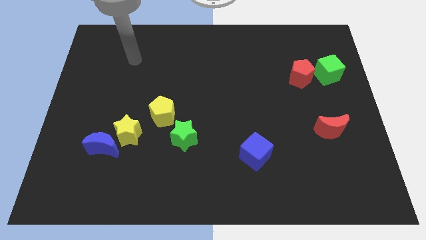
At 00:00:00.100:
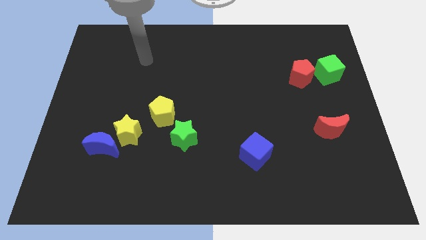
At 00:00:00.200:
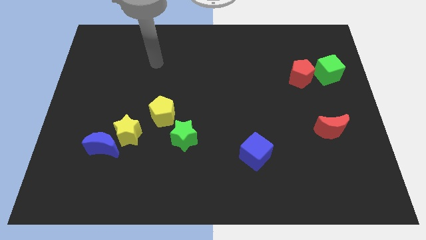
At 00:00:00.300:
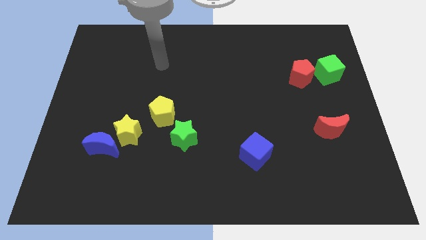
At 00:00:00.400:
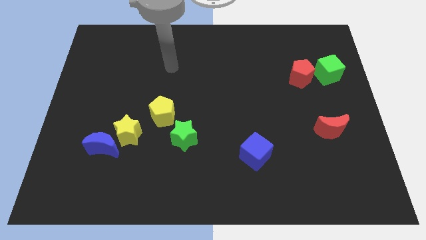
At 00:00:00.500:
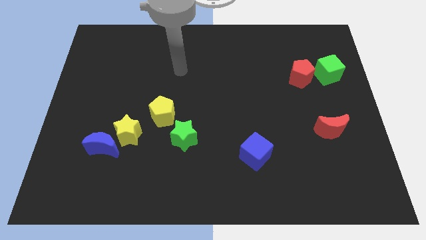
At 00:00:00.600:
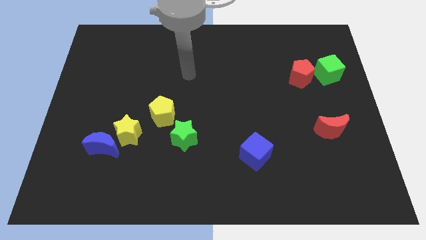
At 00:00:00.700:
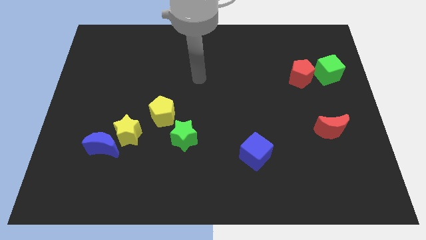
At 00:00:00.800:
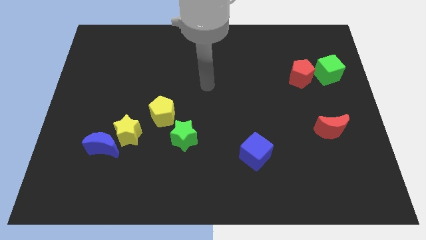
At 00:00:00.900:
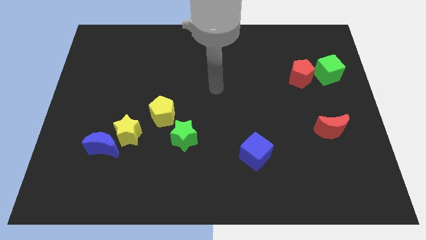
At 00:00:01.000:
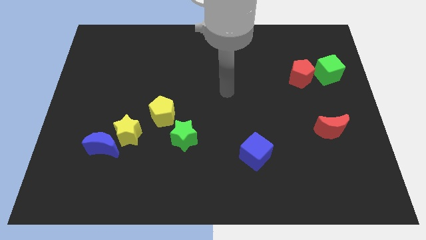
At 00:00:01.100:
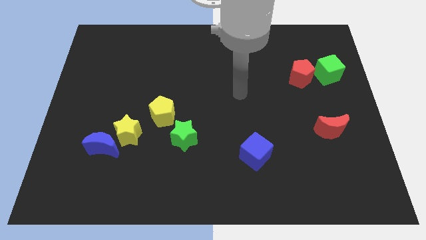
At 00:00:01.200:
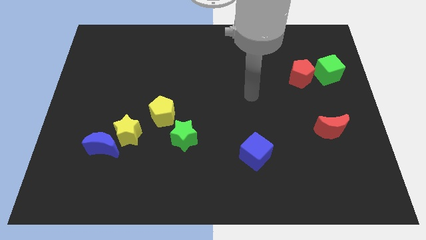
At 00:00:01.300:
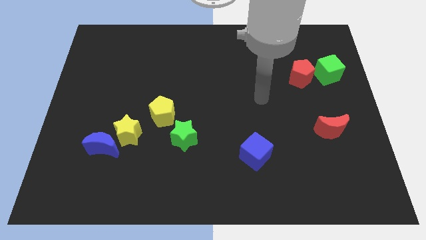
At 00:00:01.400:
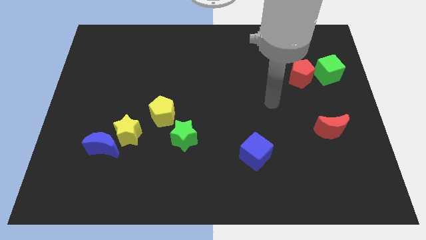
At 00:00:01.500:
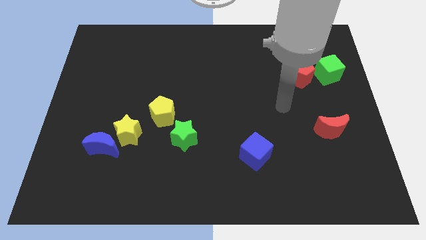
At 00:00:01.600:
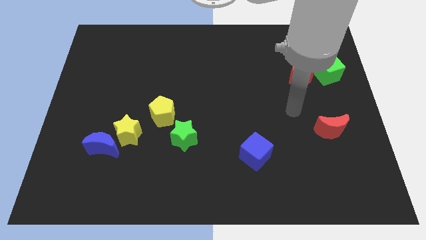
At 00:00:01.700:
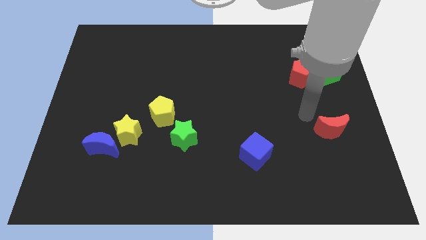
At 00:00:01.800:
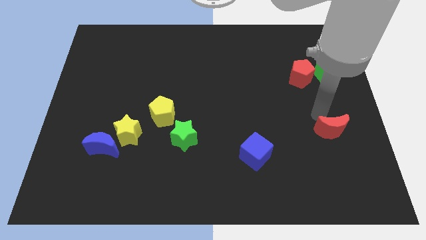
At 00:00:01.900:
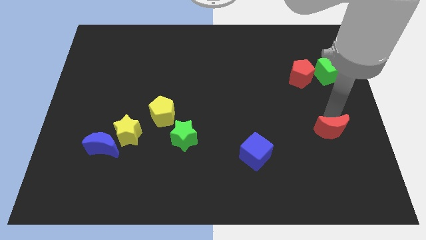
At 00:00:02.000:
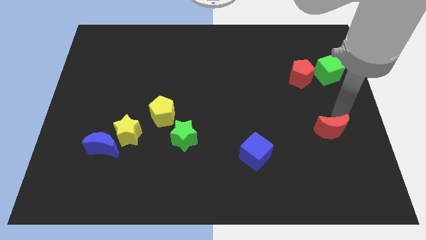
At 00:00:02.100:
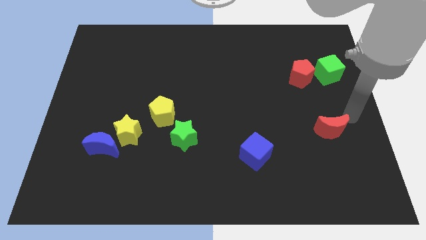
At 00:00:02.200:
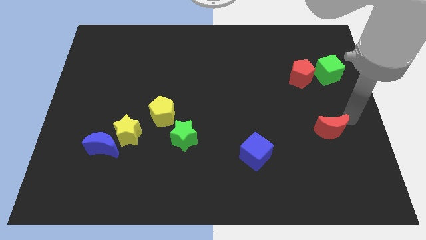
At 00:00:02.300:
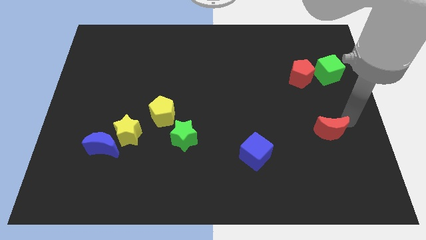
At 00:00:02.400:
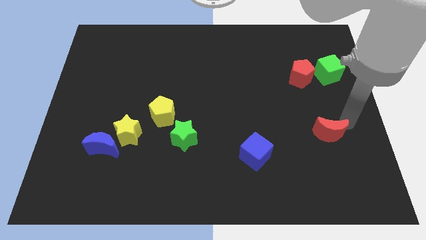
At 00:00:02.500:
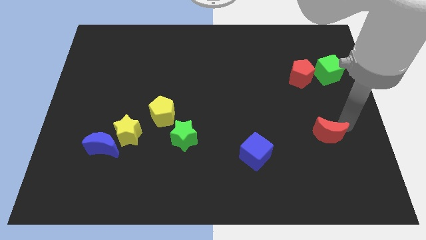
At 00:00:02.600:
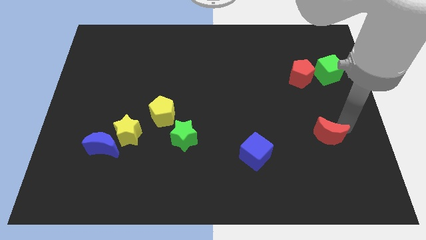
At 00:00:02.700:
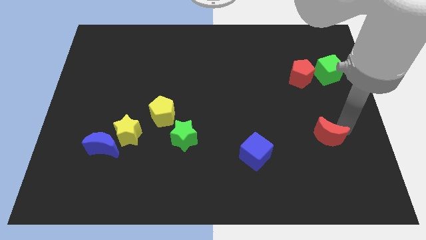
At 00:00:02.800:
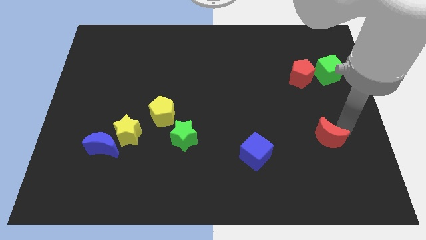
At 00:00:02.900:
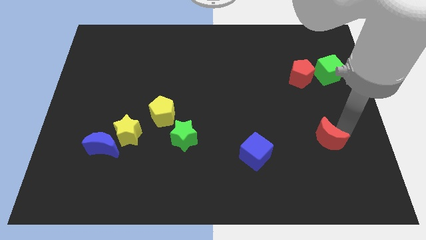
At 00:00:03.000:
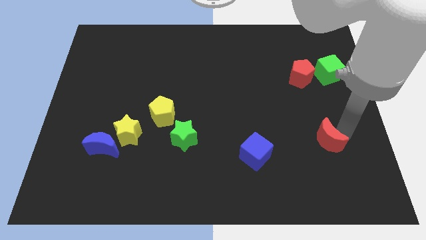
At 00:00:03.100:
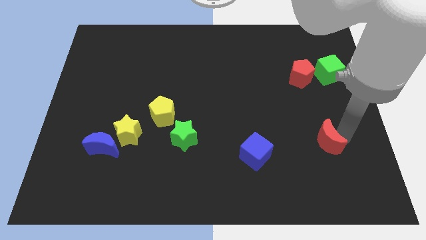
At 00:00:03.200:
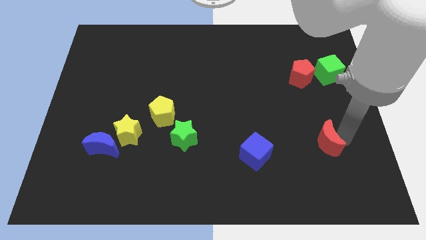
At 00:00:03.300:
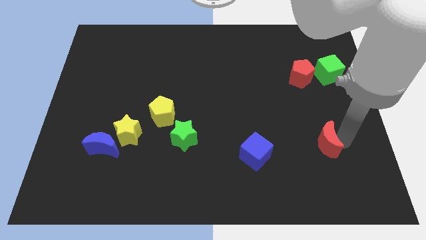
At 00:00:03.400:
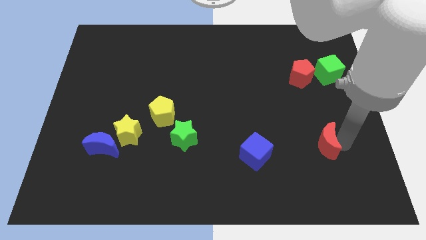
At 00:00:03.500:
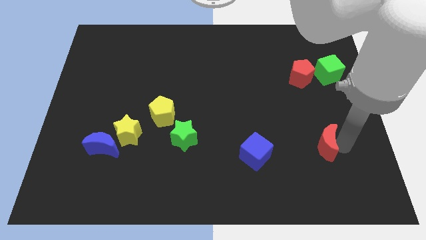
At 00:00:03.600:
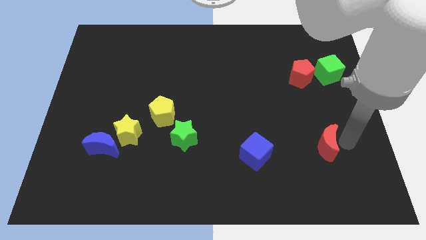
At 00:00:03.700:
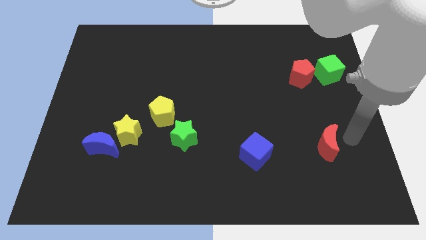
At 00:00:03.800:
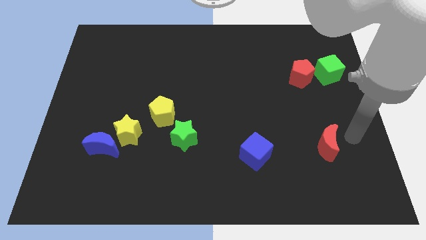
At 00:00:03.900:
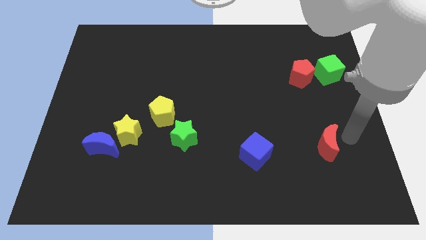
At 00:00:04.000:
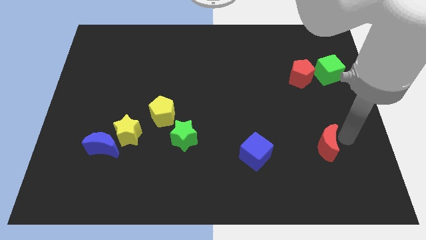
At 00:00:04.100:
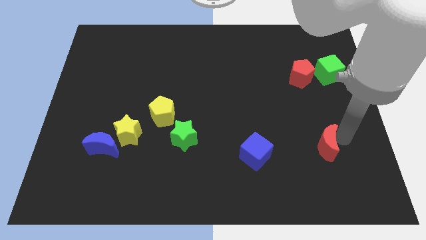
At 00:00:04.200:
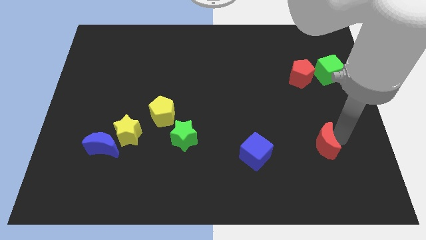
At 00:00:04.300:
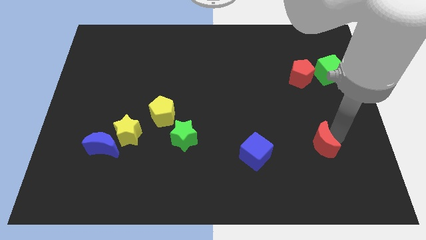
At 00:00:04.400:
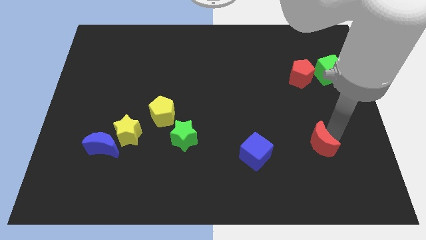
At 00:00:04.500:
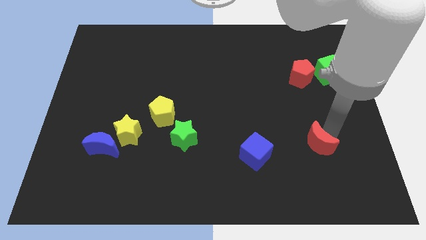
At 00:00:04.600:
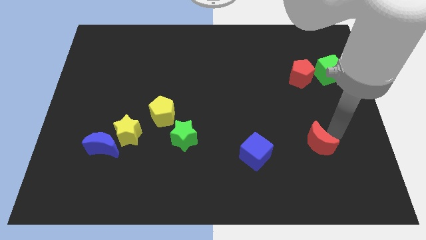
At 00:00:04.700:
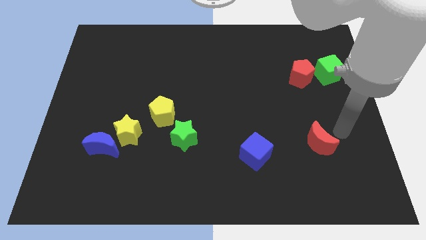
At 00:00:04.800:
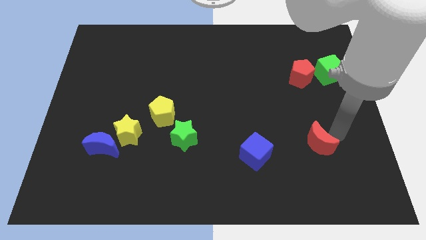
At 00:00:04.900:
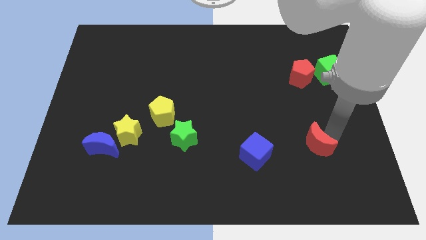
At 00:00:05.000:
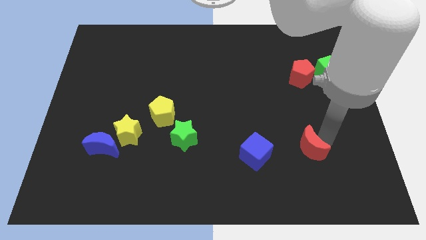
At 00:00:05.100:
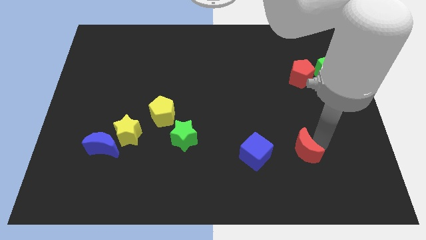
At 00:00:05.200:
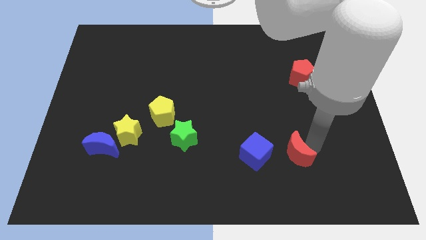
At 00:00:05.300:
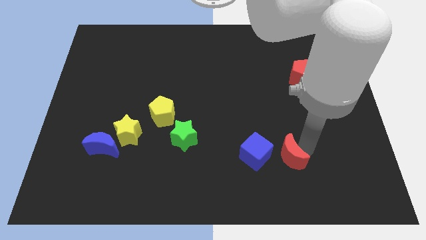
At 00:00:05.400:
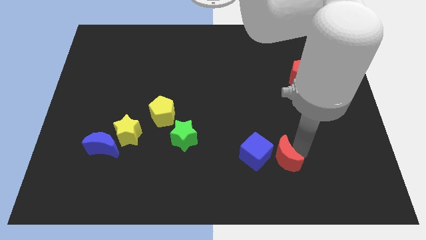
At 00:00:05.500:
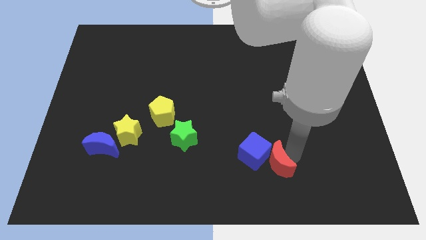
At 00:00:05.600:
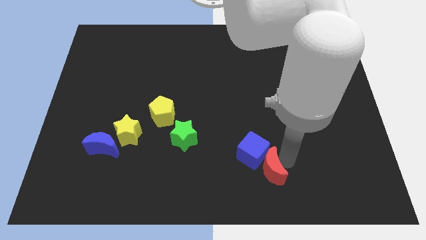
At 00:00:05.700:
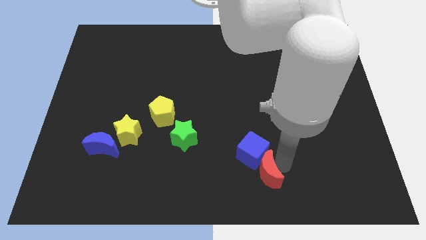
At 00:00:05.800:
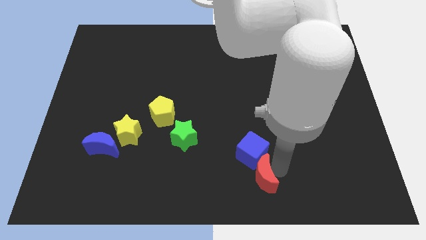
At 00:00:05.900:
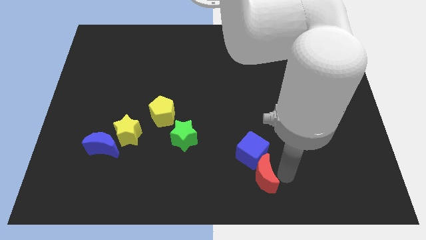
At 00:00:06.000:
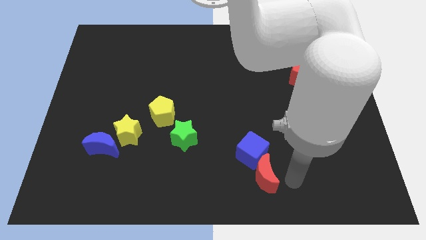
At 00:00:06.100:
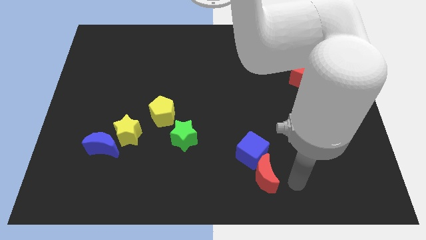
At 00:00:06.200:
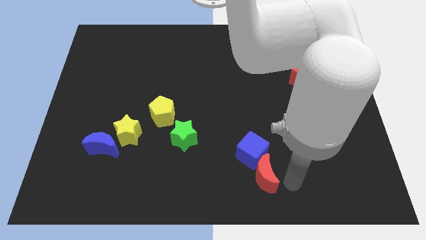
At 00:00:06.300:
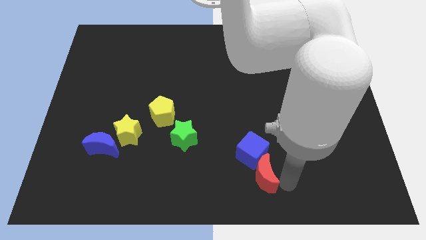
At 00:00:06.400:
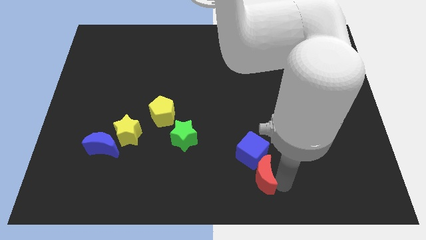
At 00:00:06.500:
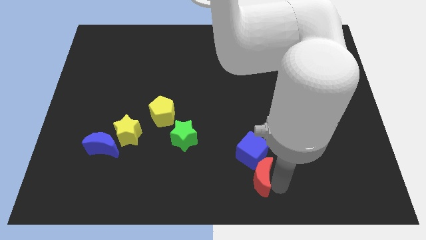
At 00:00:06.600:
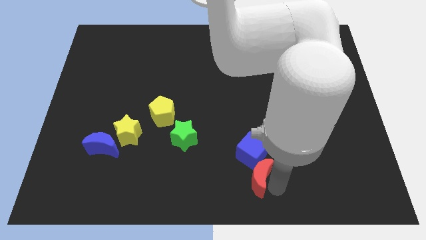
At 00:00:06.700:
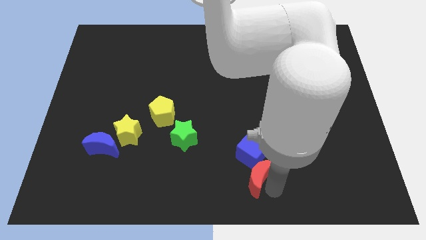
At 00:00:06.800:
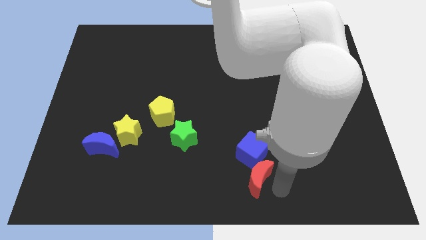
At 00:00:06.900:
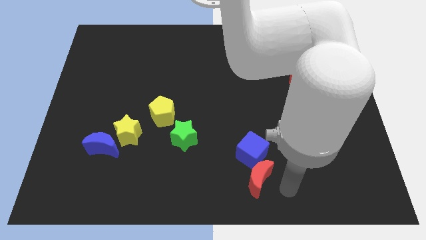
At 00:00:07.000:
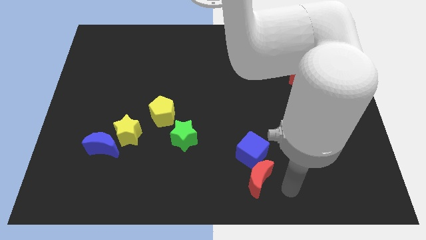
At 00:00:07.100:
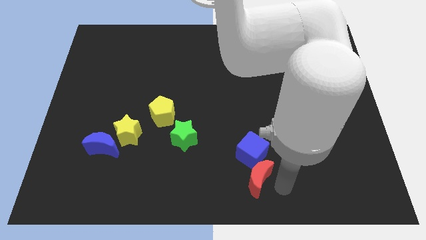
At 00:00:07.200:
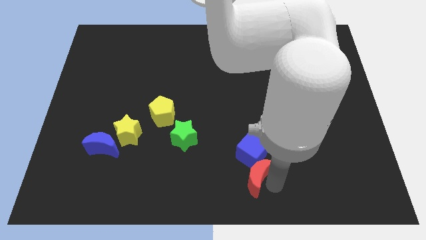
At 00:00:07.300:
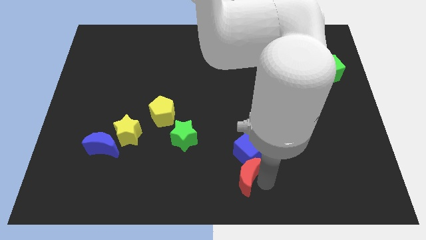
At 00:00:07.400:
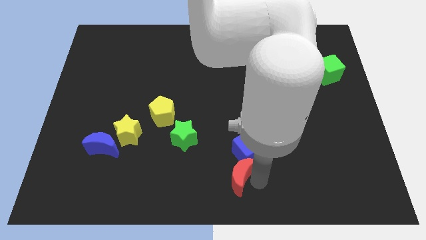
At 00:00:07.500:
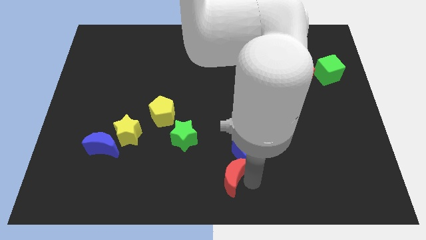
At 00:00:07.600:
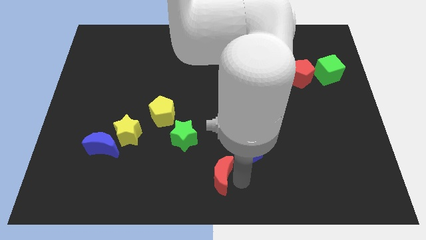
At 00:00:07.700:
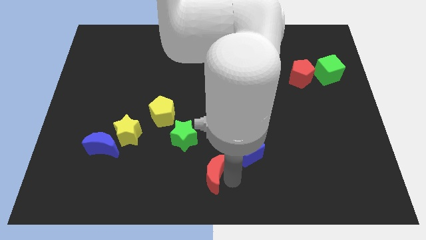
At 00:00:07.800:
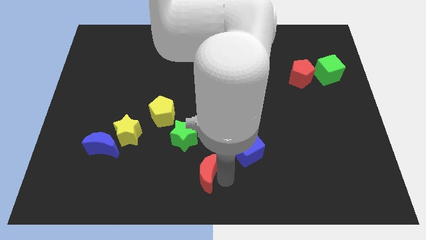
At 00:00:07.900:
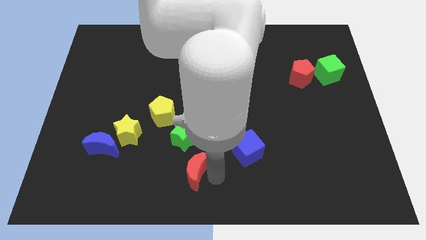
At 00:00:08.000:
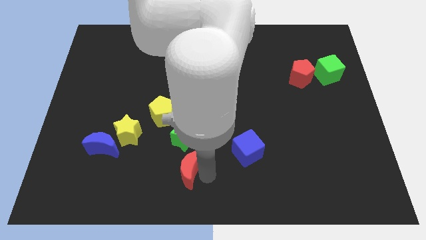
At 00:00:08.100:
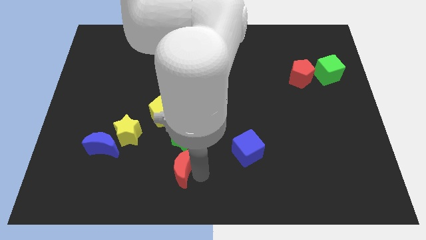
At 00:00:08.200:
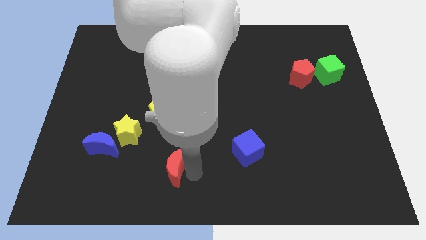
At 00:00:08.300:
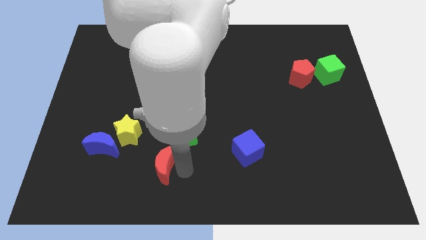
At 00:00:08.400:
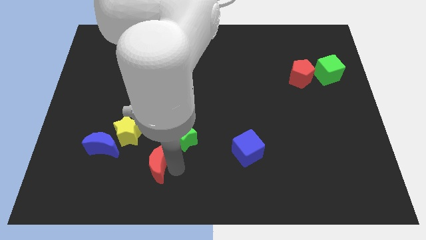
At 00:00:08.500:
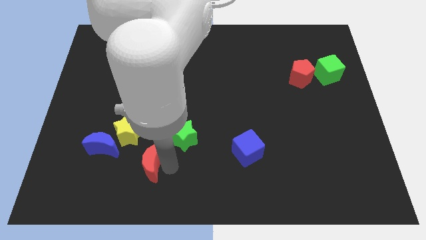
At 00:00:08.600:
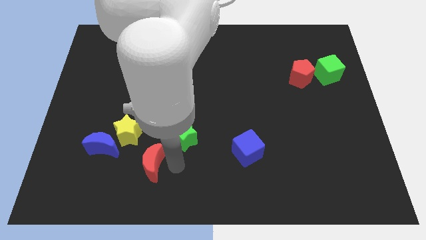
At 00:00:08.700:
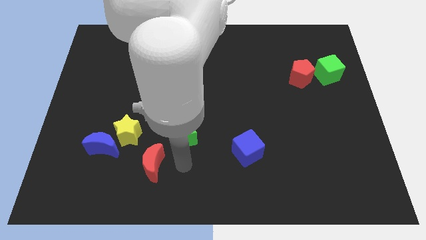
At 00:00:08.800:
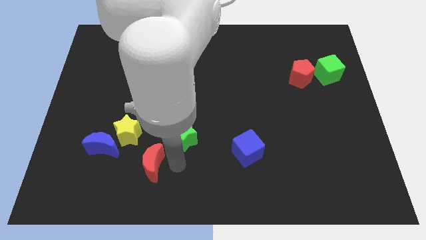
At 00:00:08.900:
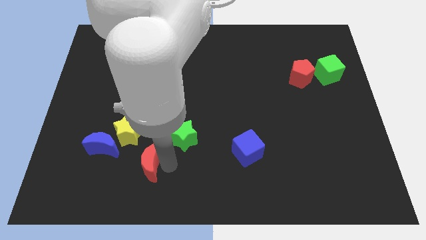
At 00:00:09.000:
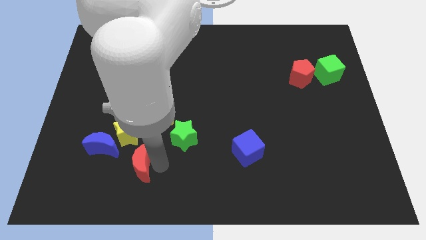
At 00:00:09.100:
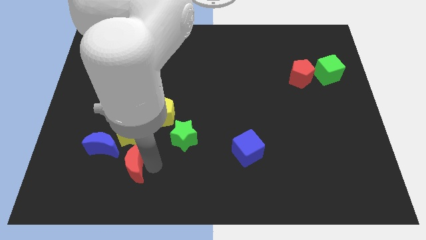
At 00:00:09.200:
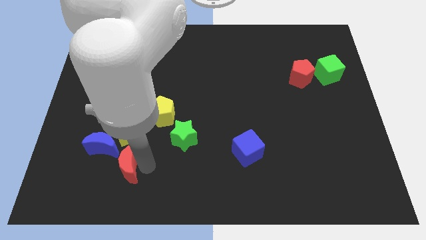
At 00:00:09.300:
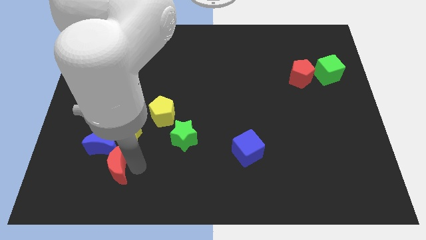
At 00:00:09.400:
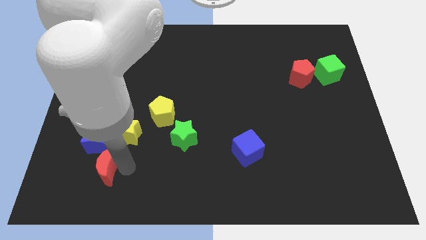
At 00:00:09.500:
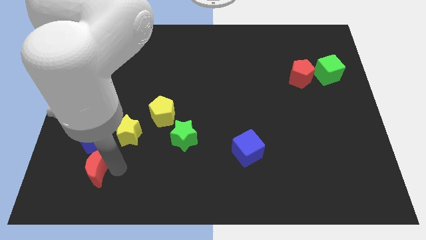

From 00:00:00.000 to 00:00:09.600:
put the red moon to the bottom left of the blue moon
